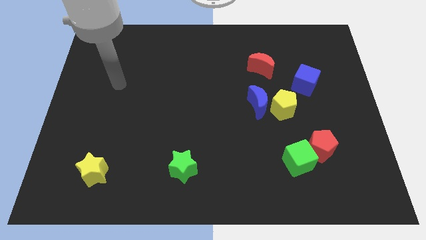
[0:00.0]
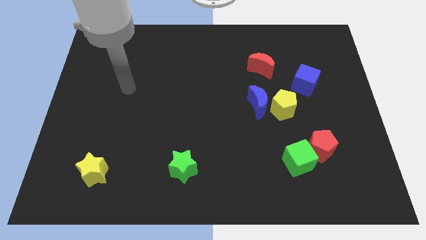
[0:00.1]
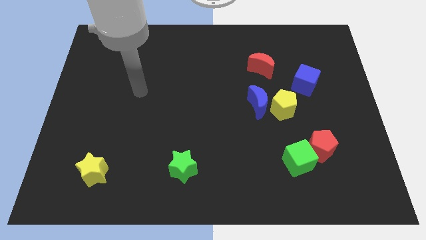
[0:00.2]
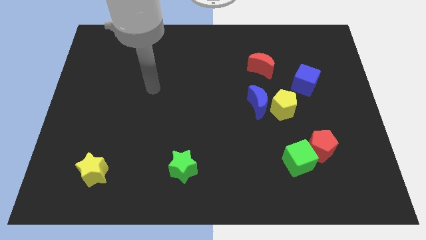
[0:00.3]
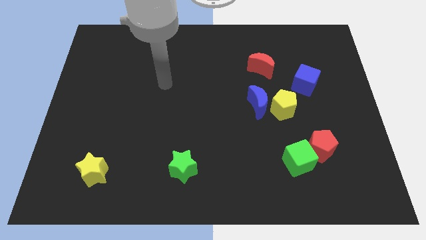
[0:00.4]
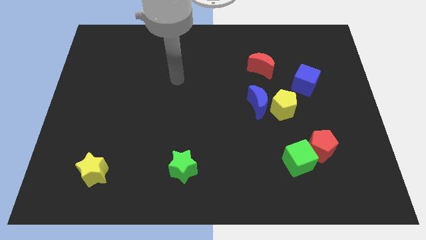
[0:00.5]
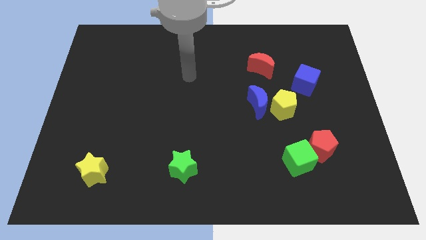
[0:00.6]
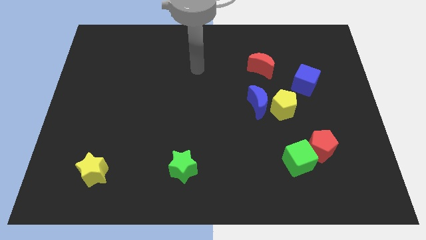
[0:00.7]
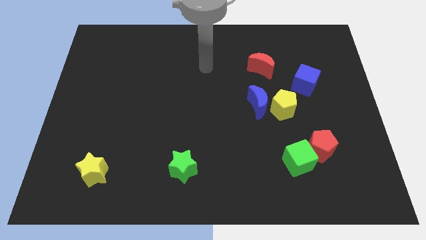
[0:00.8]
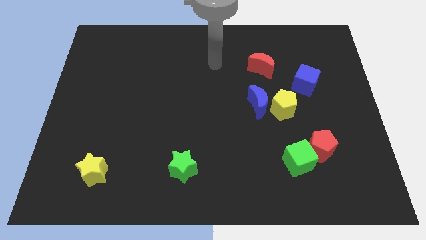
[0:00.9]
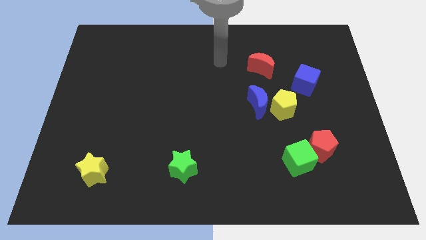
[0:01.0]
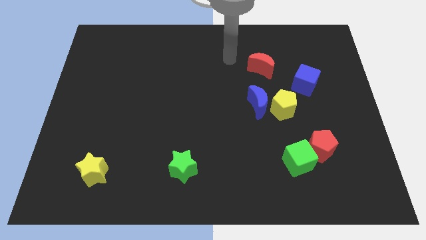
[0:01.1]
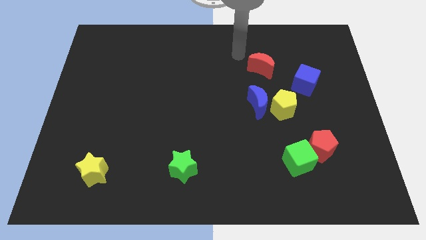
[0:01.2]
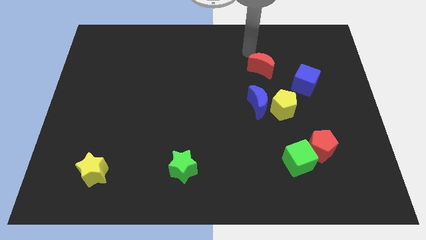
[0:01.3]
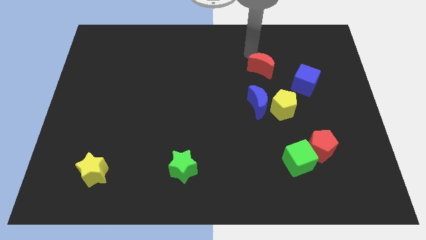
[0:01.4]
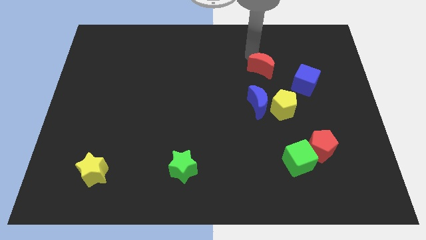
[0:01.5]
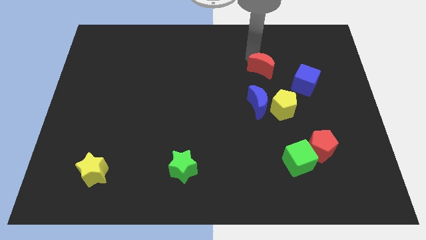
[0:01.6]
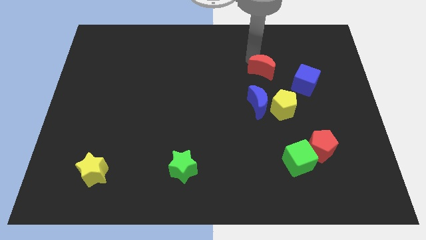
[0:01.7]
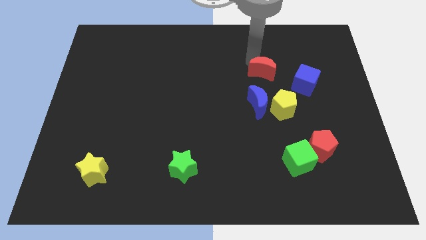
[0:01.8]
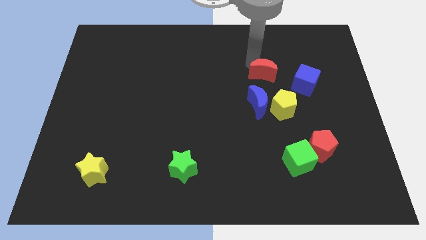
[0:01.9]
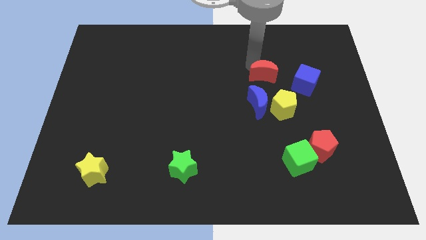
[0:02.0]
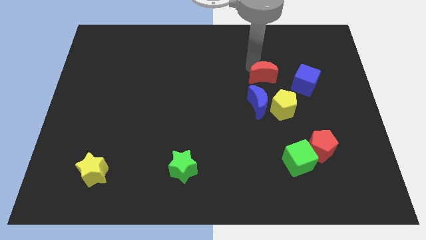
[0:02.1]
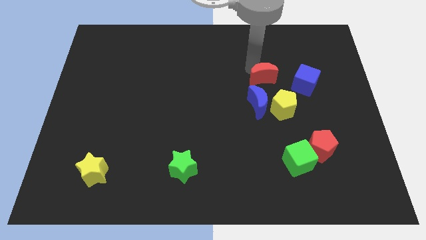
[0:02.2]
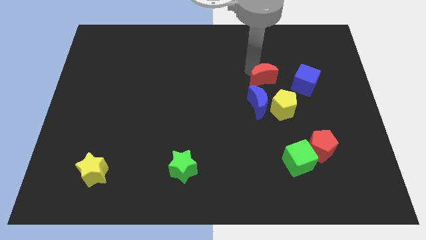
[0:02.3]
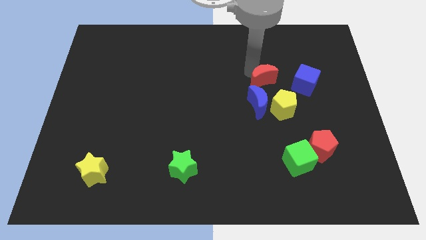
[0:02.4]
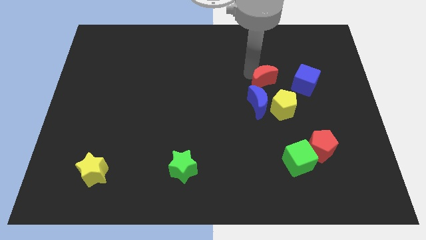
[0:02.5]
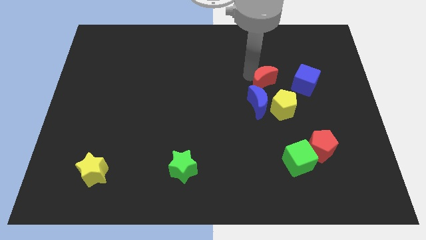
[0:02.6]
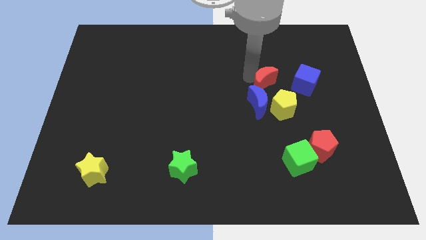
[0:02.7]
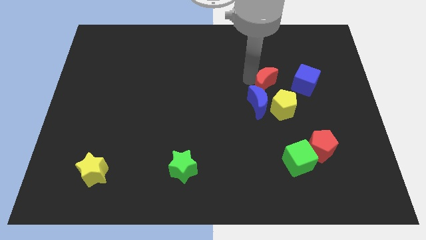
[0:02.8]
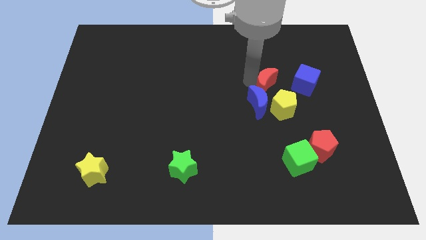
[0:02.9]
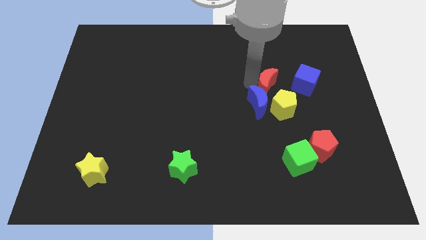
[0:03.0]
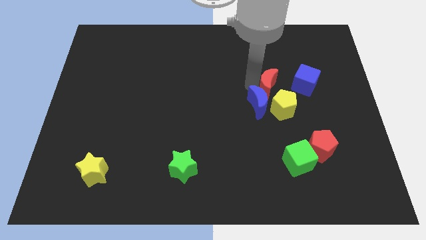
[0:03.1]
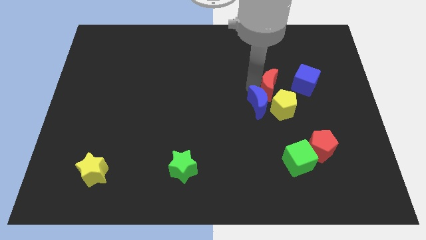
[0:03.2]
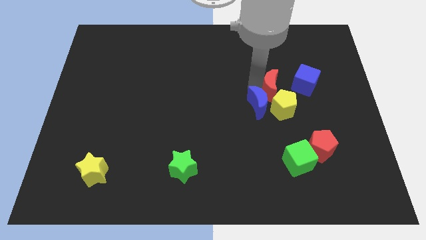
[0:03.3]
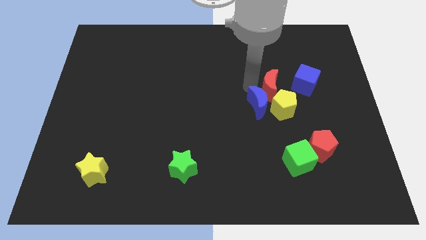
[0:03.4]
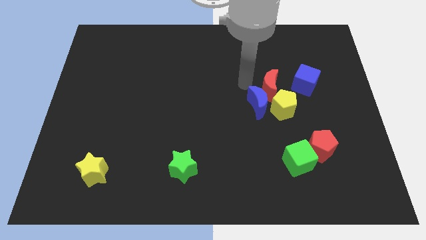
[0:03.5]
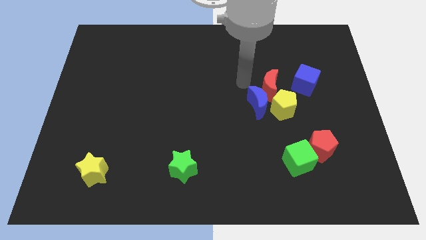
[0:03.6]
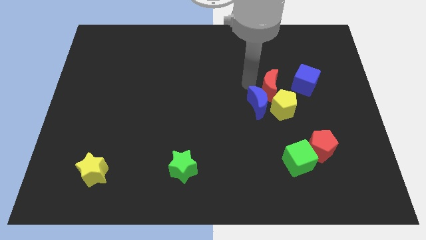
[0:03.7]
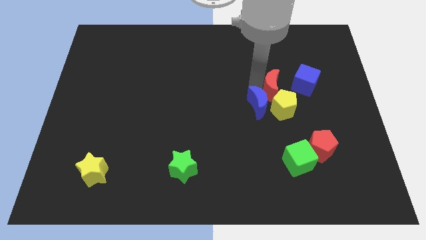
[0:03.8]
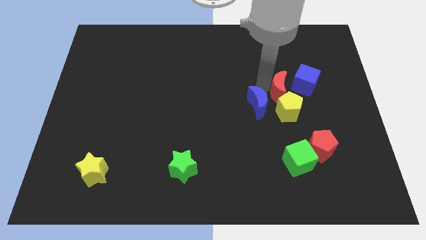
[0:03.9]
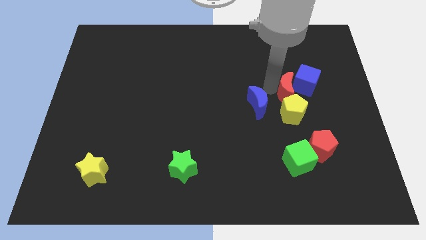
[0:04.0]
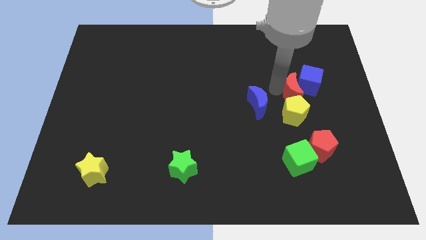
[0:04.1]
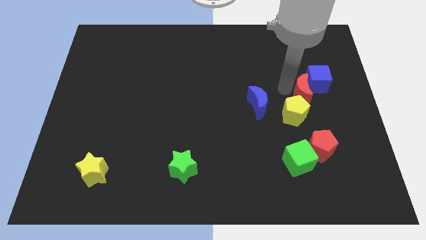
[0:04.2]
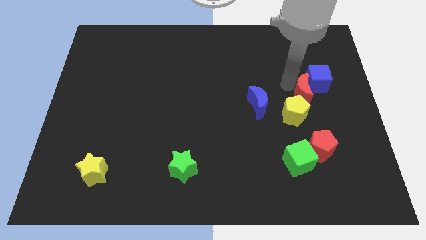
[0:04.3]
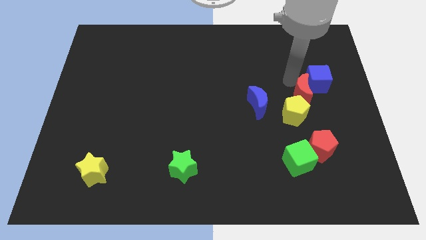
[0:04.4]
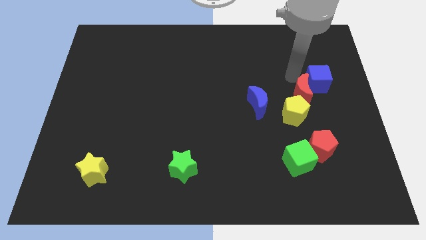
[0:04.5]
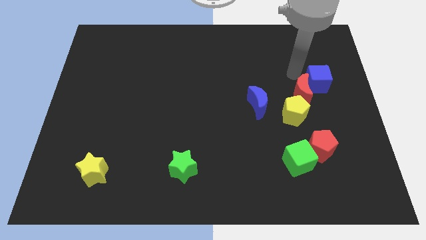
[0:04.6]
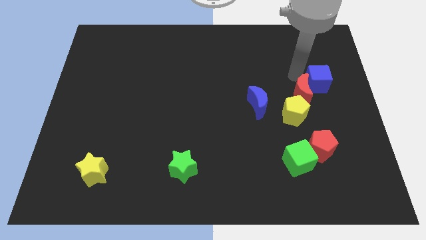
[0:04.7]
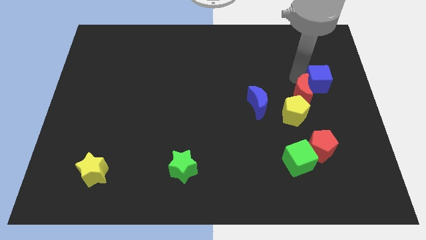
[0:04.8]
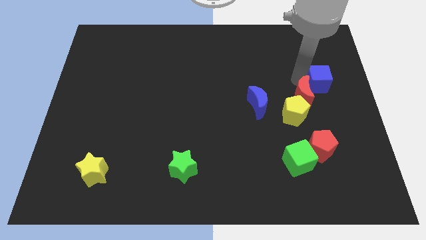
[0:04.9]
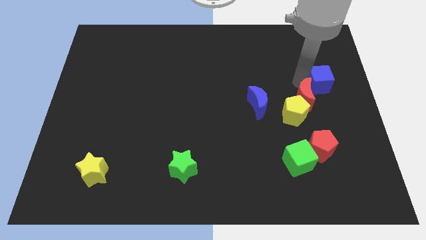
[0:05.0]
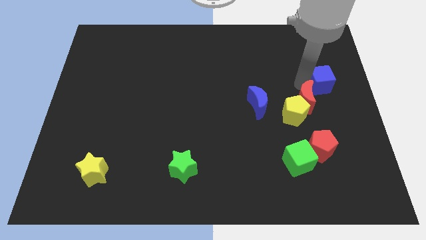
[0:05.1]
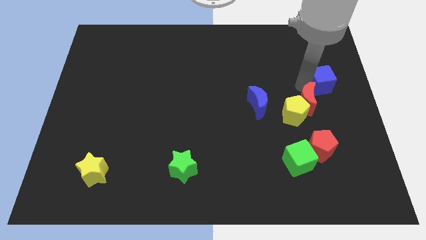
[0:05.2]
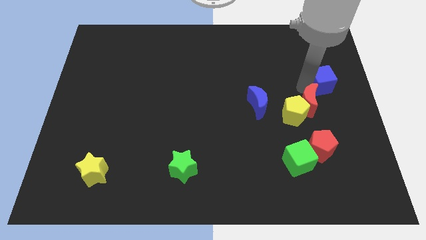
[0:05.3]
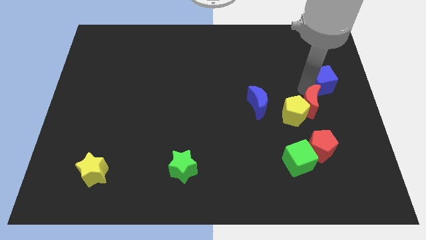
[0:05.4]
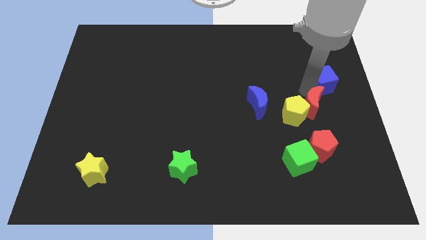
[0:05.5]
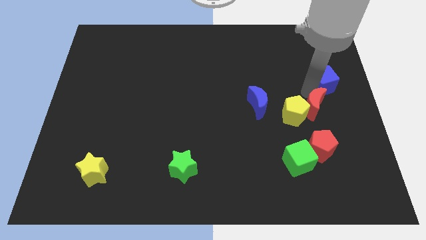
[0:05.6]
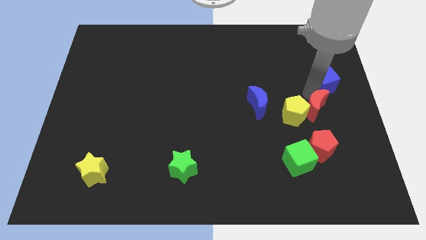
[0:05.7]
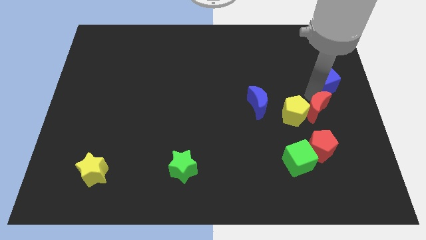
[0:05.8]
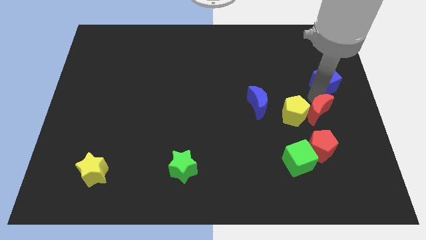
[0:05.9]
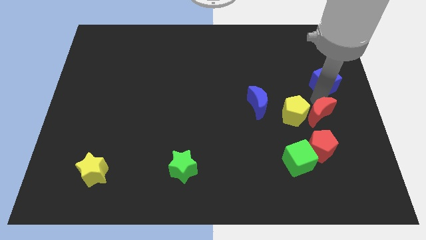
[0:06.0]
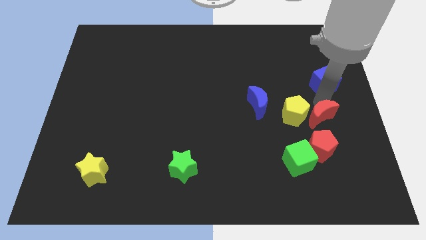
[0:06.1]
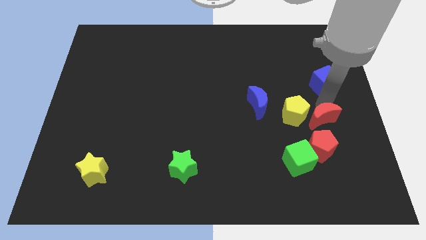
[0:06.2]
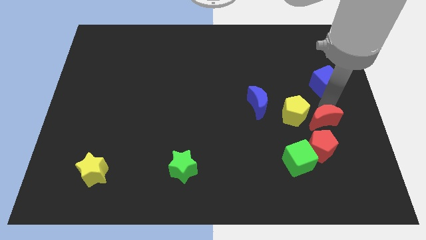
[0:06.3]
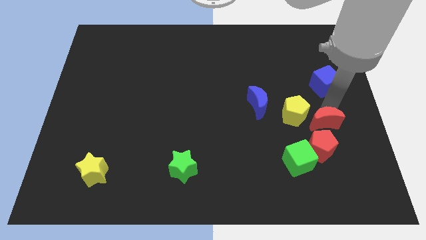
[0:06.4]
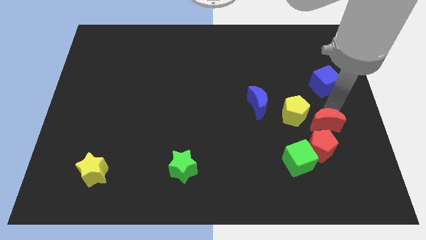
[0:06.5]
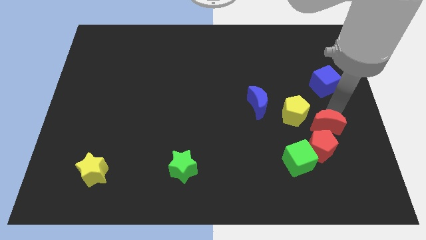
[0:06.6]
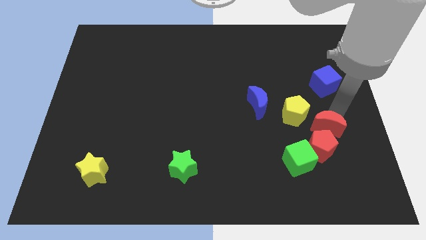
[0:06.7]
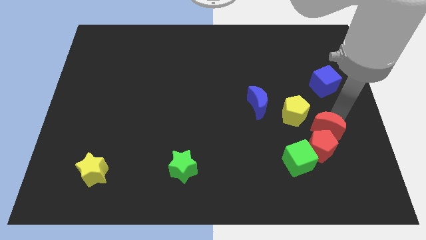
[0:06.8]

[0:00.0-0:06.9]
slide the red moon towards the red pentagon
